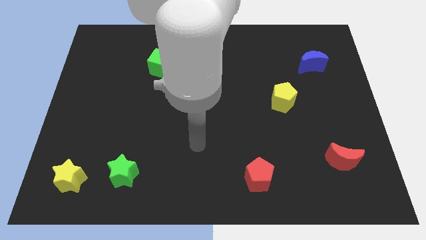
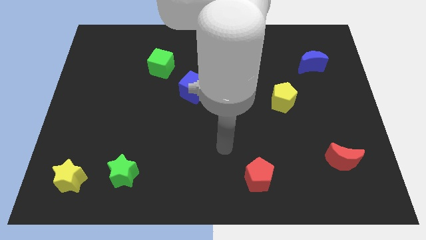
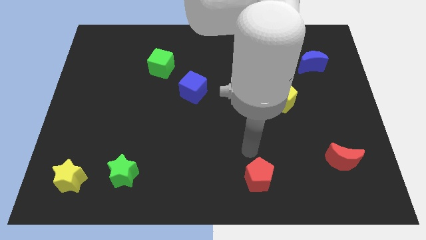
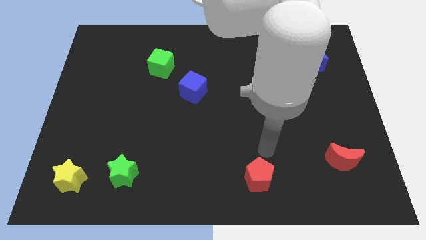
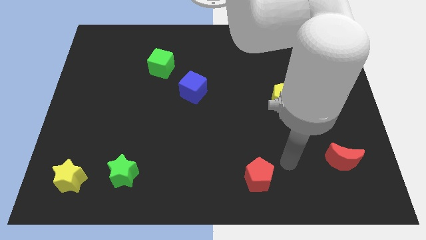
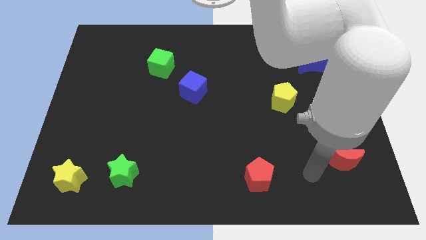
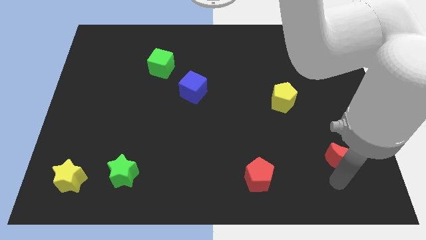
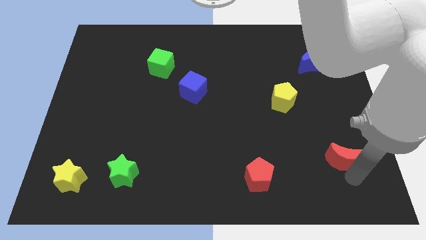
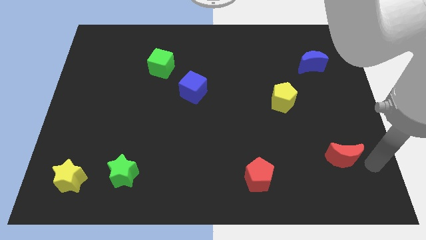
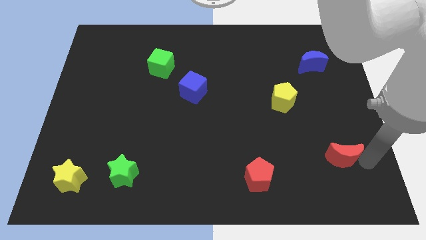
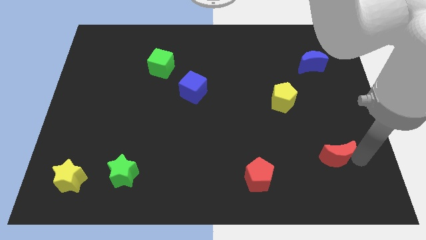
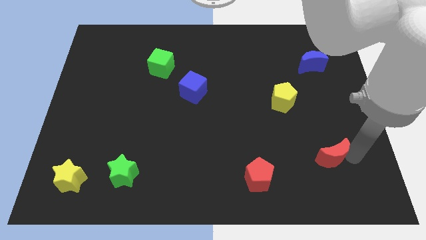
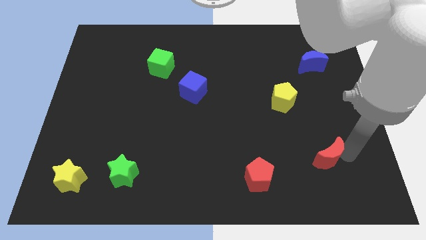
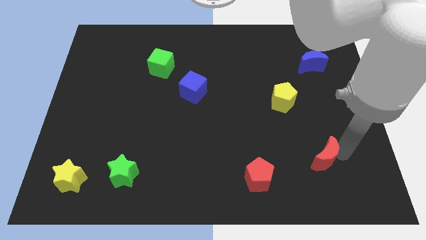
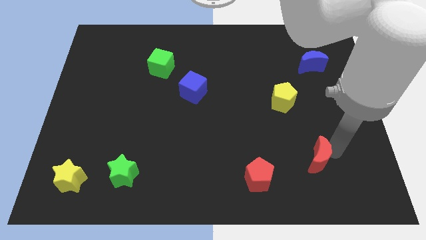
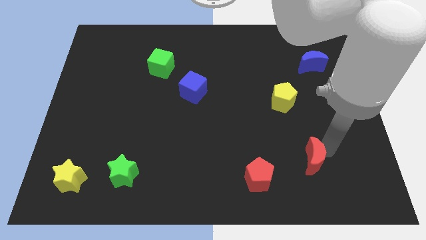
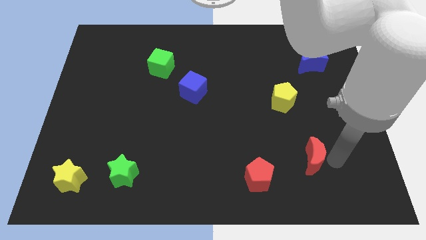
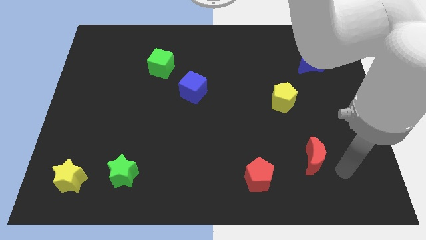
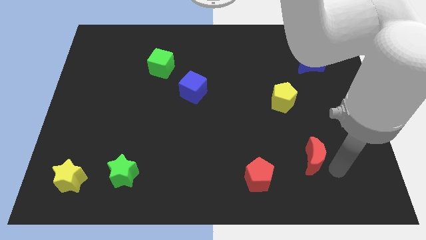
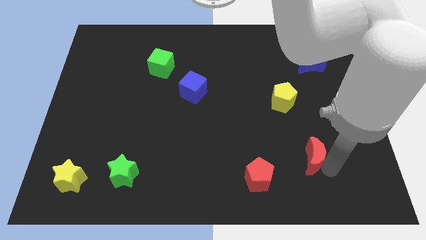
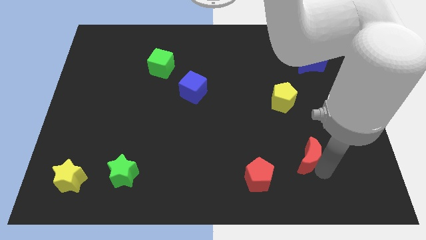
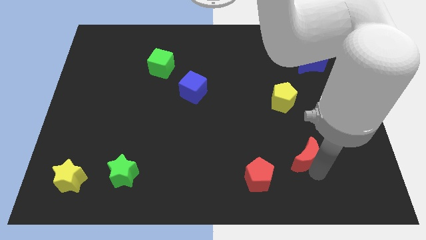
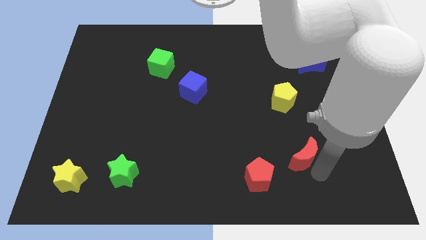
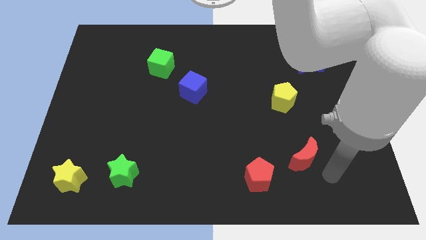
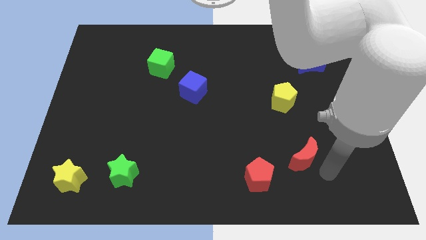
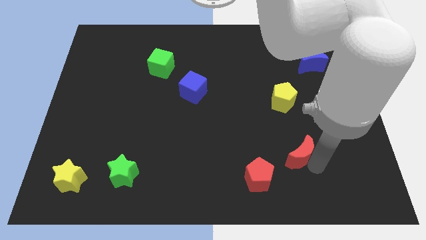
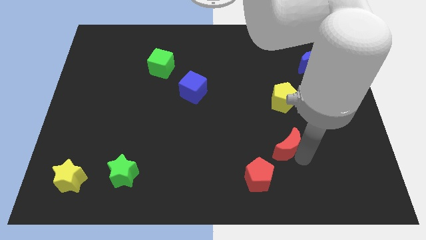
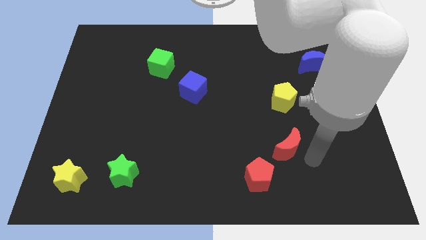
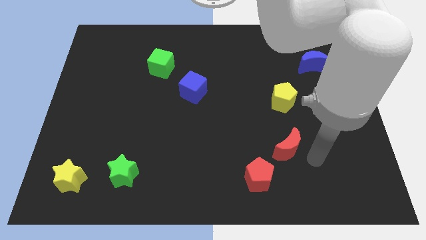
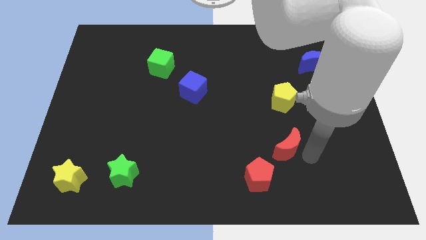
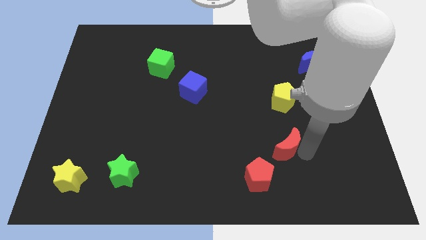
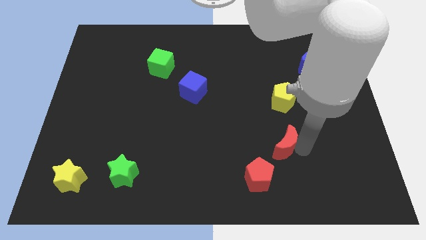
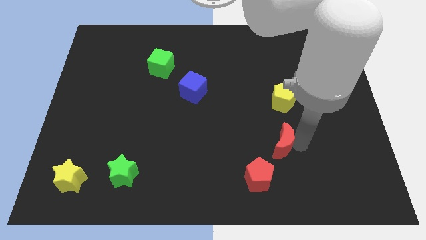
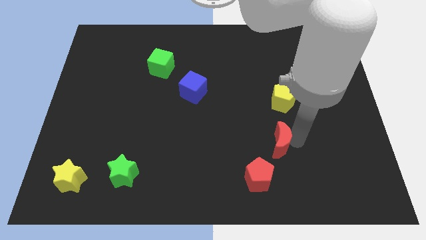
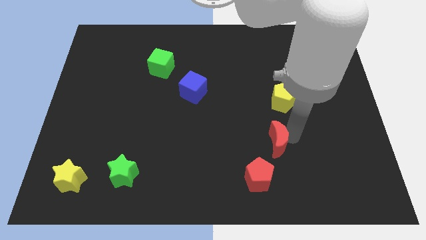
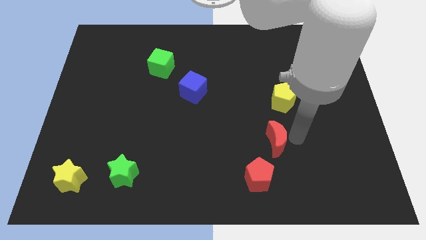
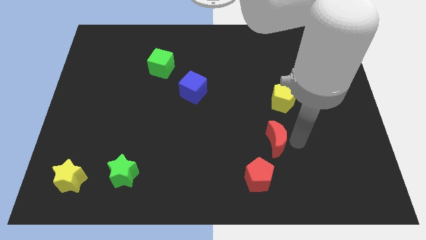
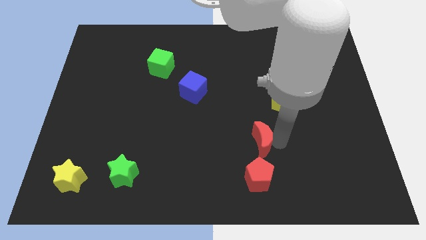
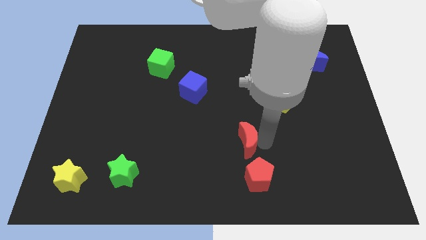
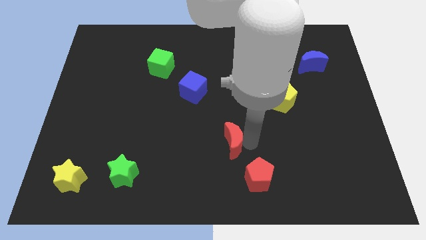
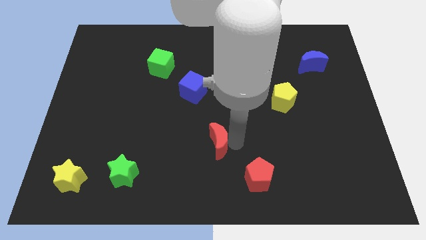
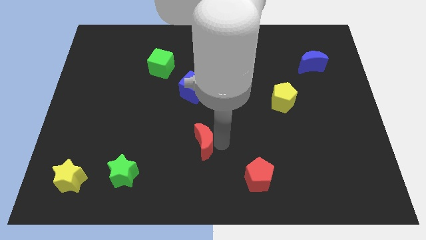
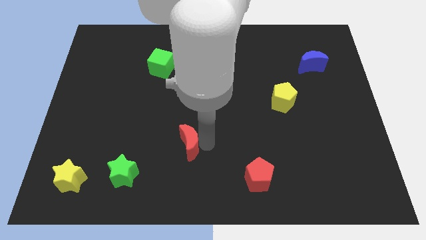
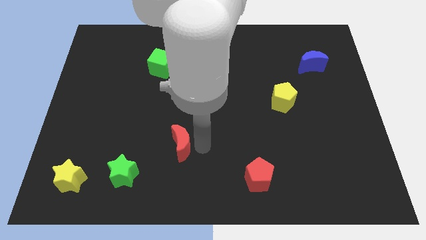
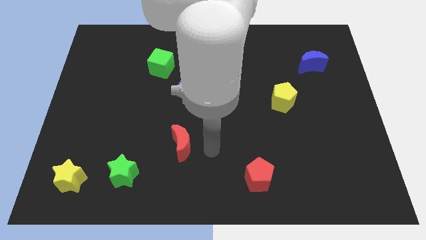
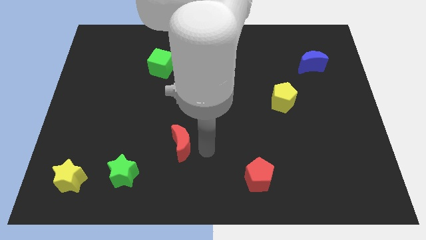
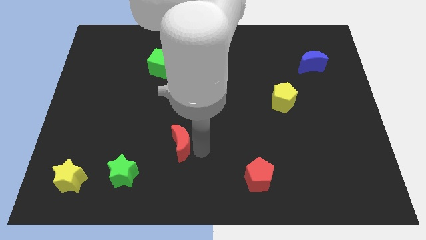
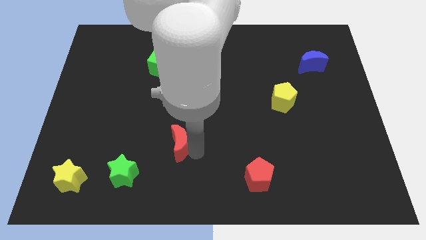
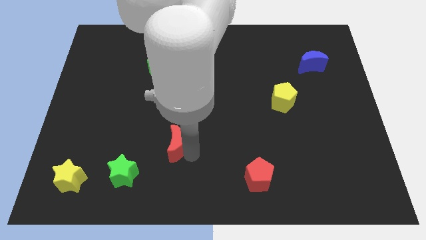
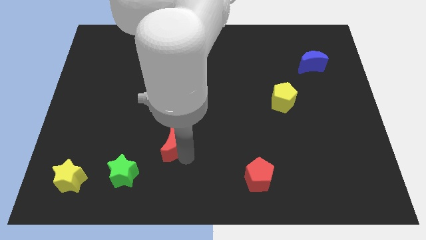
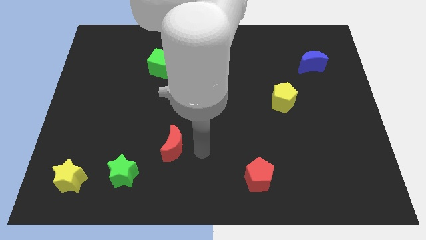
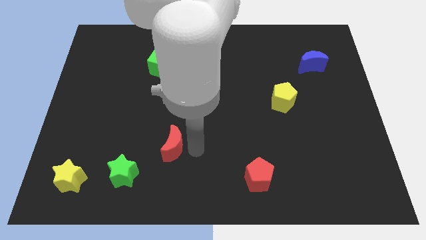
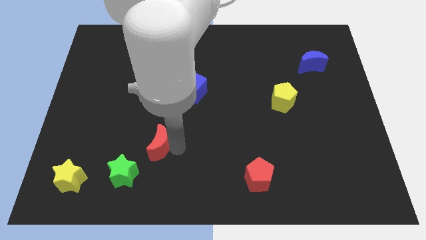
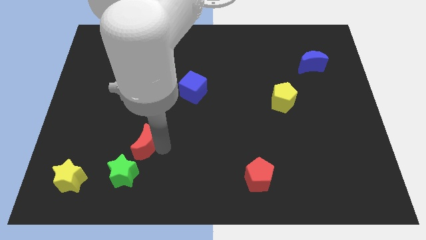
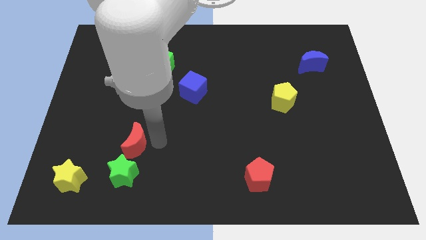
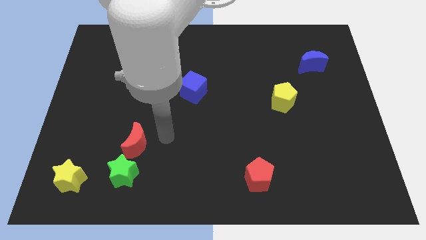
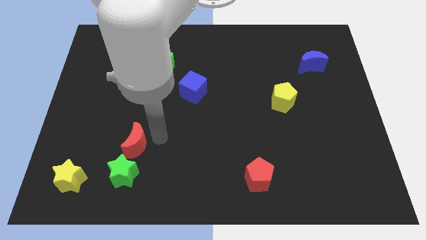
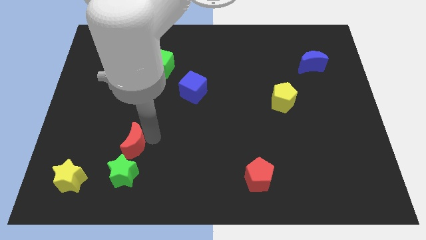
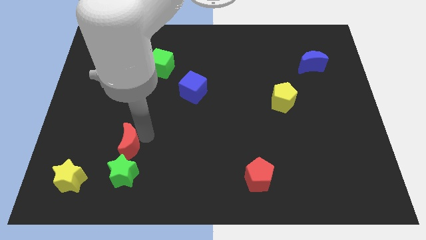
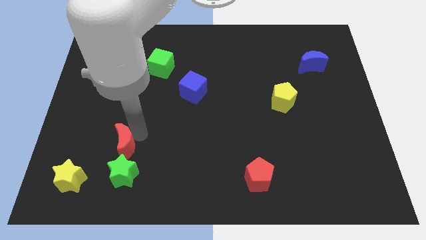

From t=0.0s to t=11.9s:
move the red moon diagonally up and to the left of the green star
